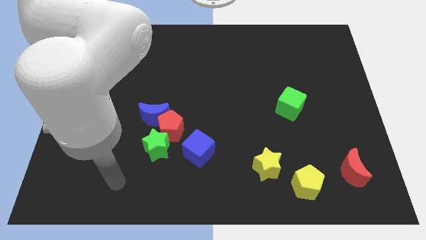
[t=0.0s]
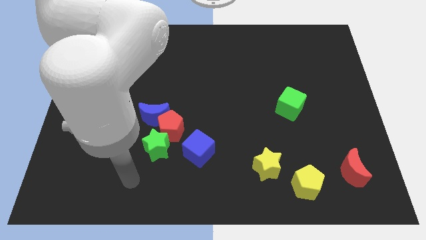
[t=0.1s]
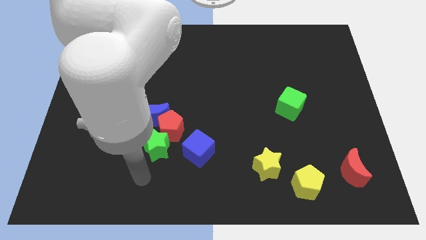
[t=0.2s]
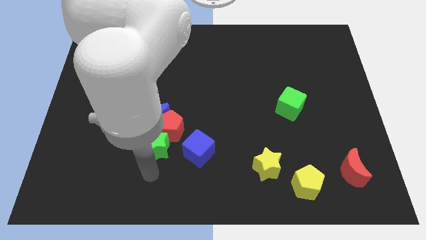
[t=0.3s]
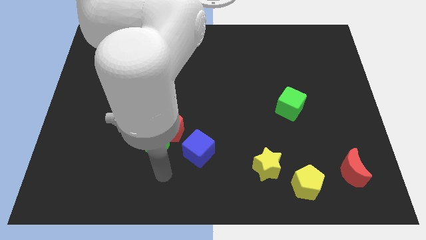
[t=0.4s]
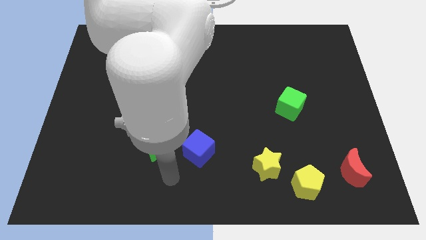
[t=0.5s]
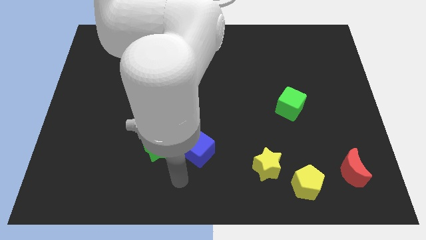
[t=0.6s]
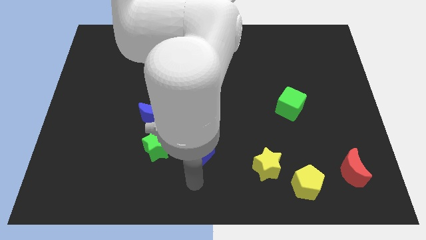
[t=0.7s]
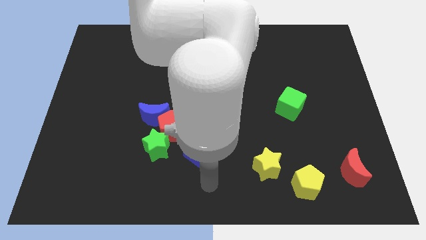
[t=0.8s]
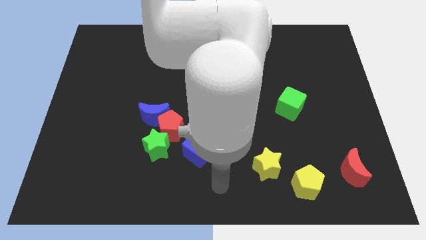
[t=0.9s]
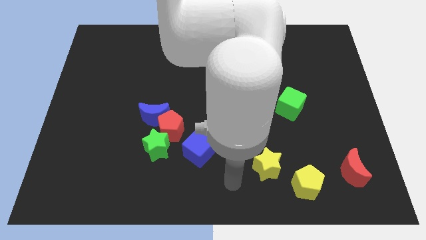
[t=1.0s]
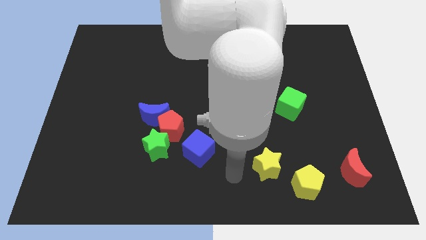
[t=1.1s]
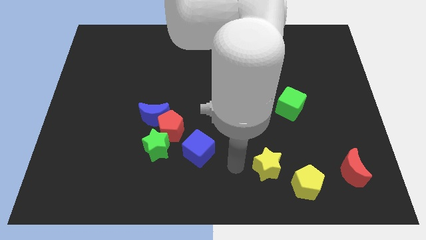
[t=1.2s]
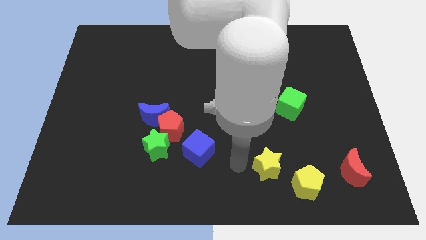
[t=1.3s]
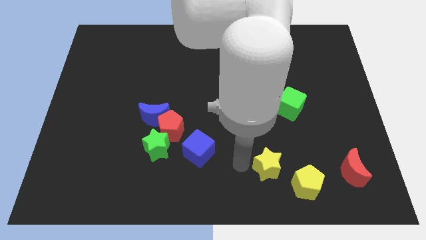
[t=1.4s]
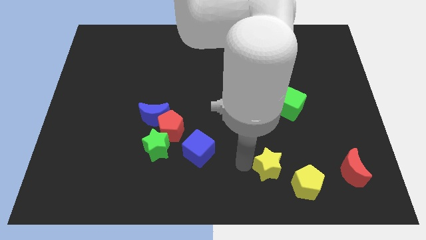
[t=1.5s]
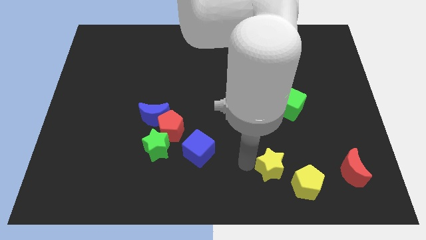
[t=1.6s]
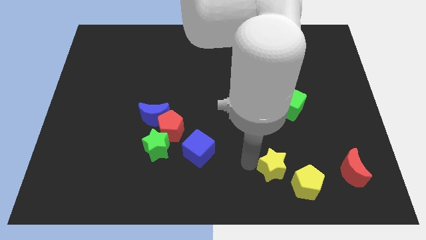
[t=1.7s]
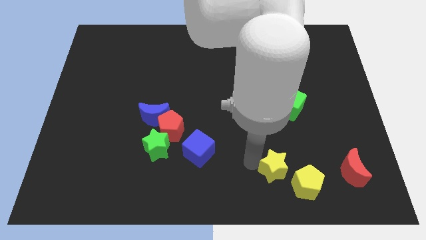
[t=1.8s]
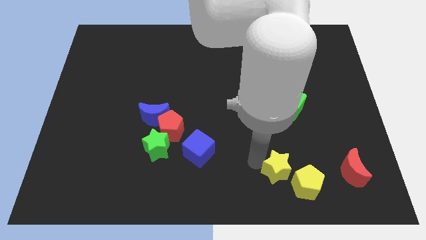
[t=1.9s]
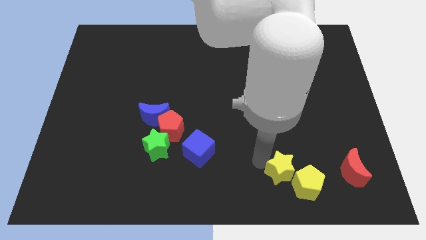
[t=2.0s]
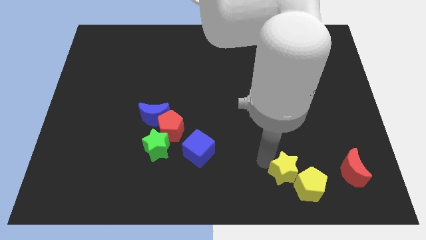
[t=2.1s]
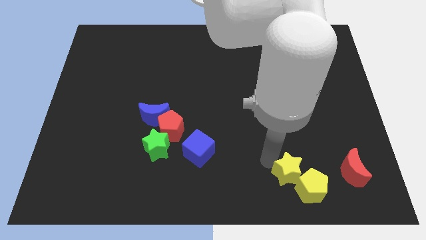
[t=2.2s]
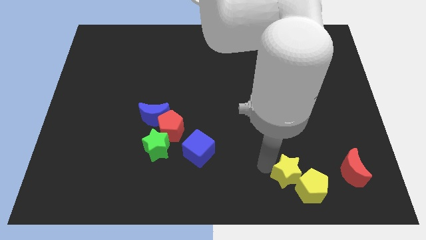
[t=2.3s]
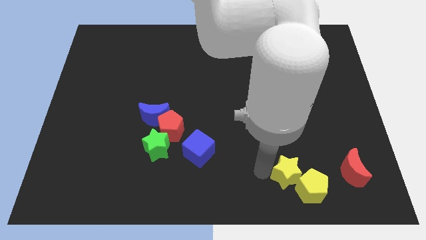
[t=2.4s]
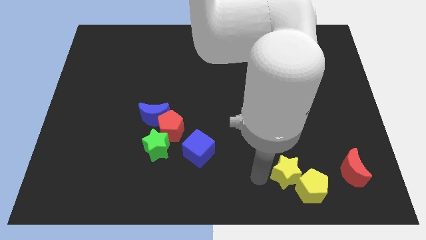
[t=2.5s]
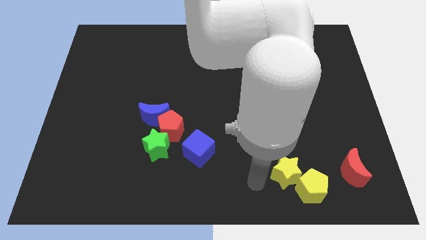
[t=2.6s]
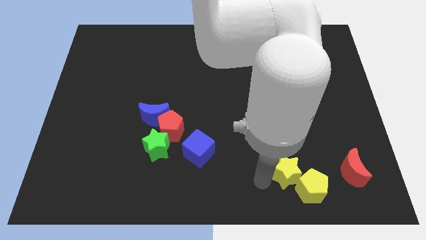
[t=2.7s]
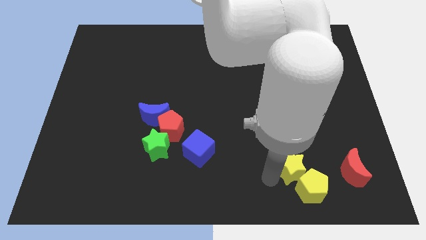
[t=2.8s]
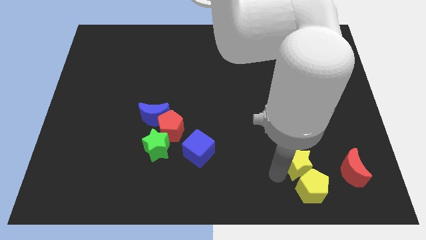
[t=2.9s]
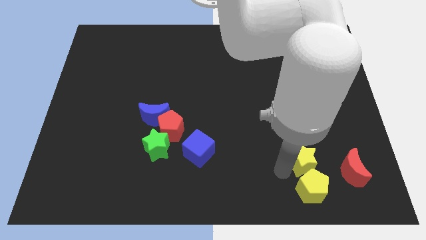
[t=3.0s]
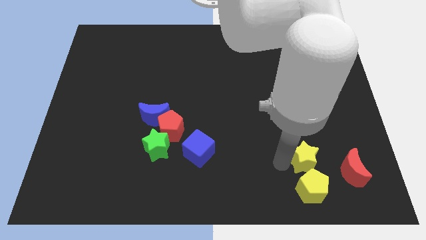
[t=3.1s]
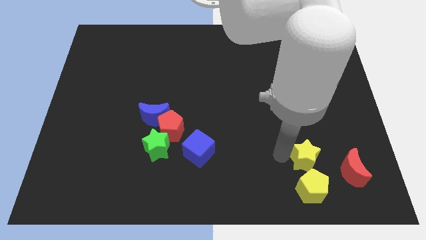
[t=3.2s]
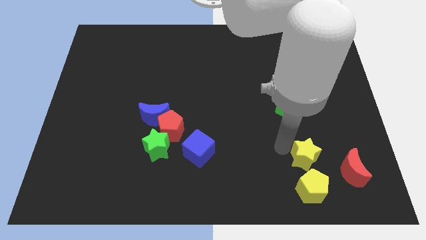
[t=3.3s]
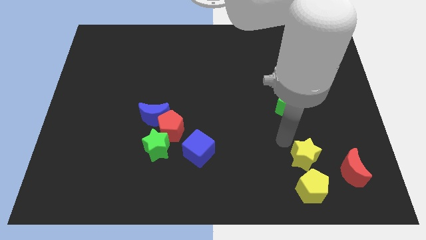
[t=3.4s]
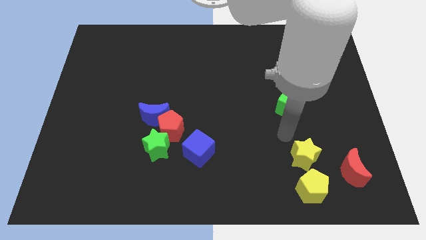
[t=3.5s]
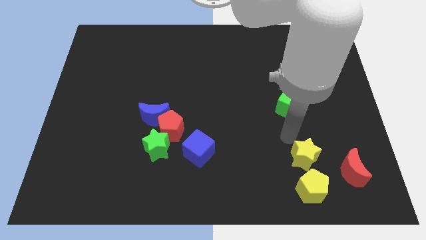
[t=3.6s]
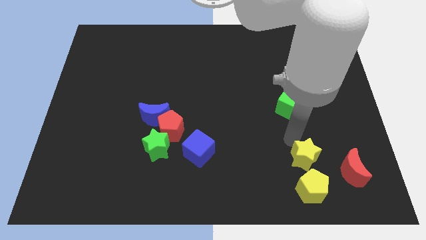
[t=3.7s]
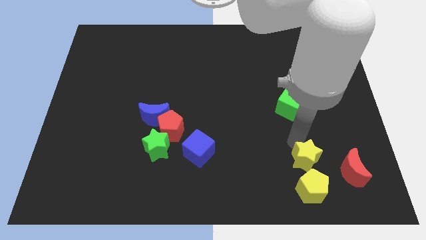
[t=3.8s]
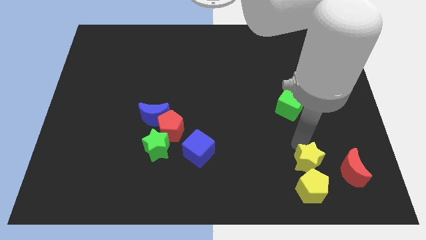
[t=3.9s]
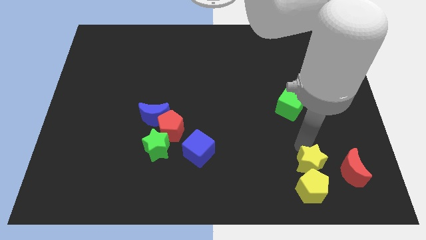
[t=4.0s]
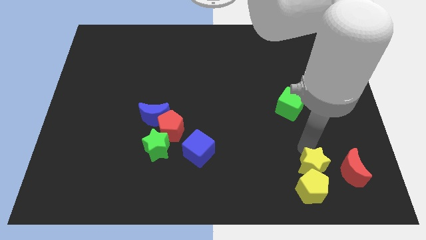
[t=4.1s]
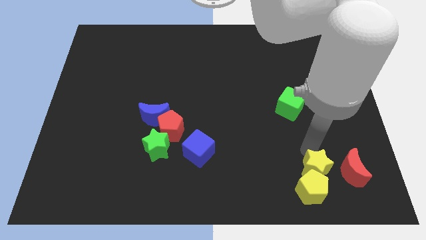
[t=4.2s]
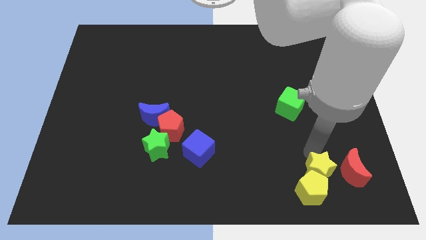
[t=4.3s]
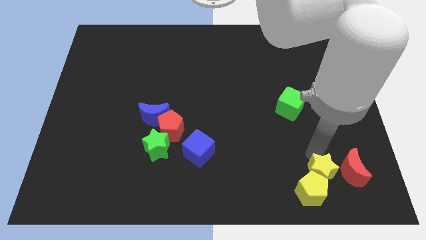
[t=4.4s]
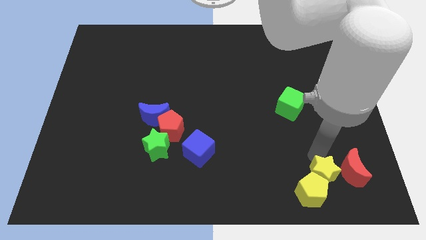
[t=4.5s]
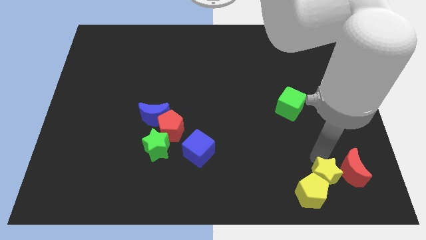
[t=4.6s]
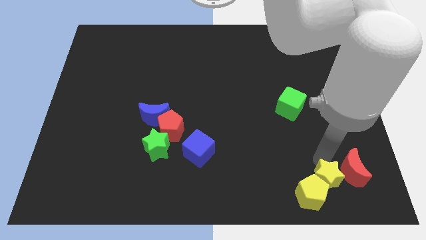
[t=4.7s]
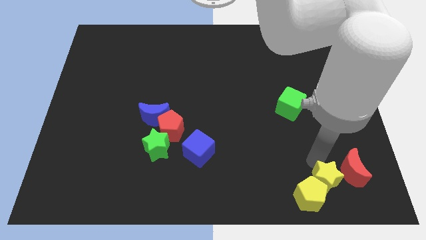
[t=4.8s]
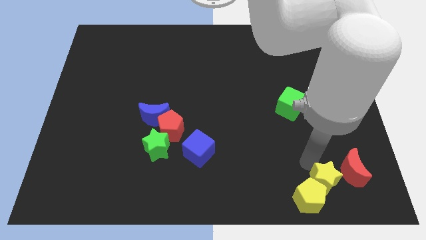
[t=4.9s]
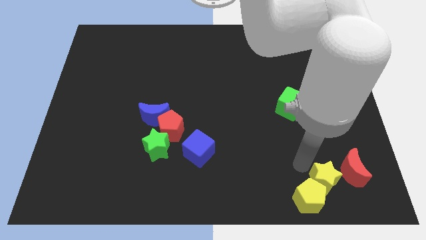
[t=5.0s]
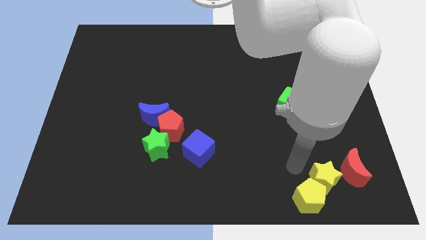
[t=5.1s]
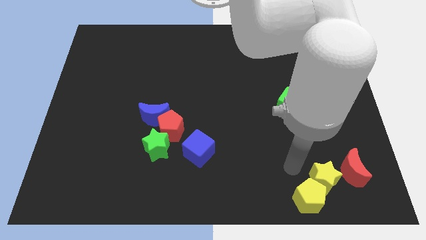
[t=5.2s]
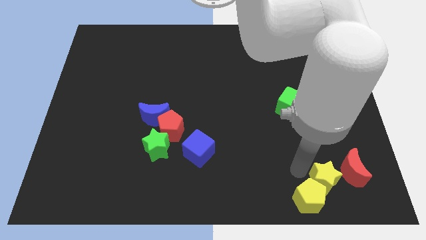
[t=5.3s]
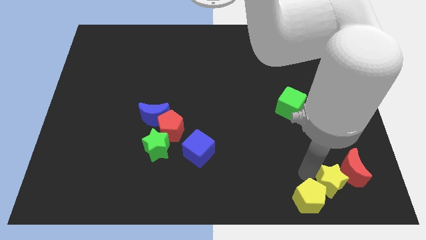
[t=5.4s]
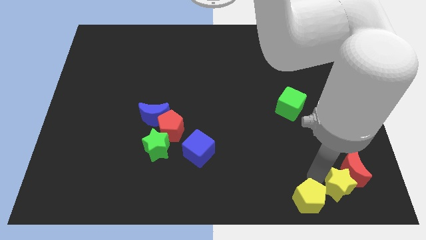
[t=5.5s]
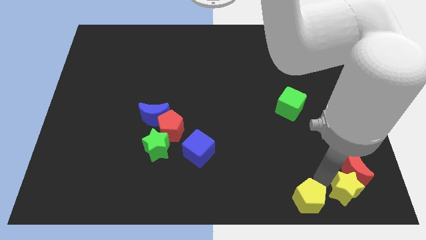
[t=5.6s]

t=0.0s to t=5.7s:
push the yellow star to the bottom right of the board

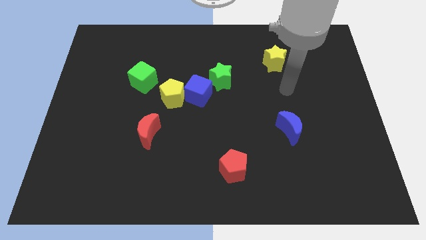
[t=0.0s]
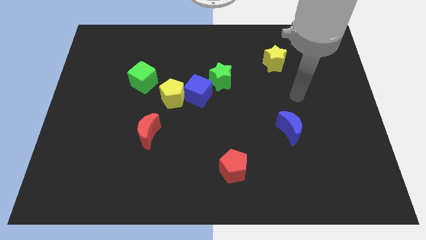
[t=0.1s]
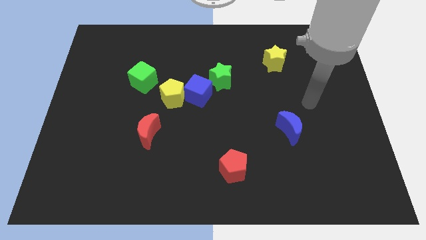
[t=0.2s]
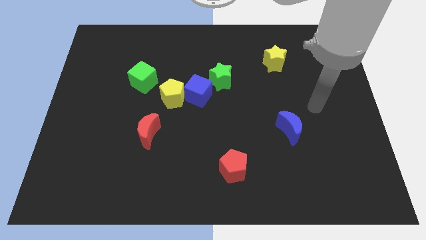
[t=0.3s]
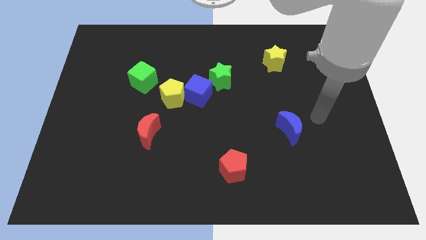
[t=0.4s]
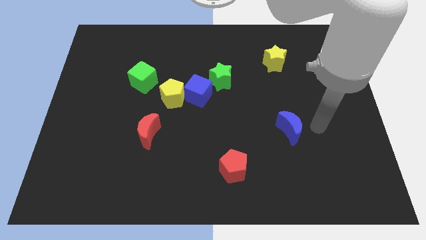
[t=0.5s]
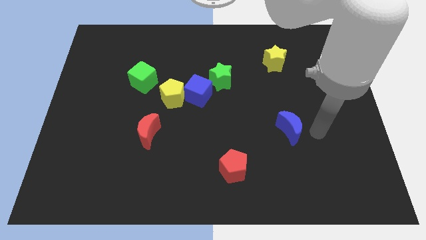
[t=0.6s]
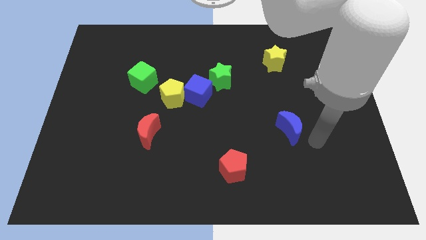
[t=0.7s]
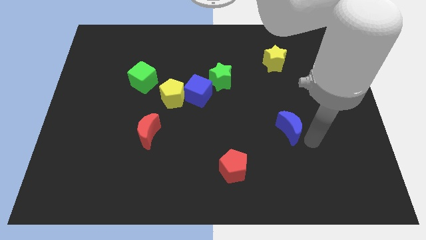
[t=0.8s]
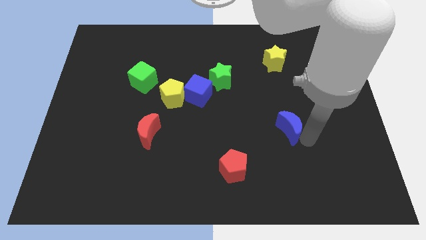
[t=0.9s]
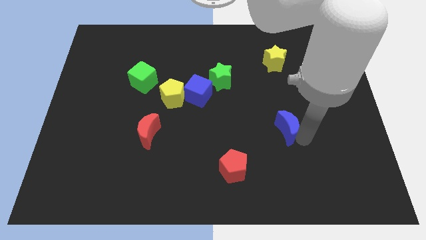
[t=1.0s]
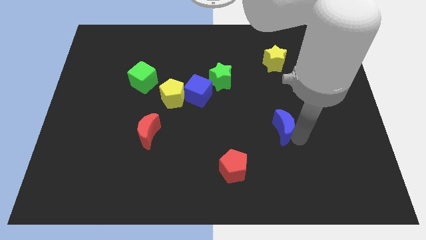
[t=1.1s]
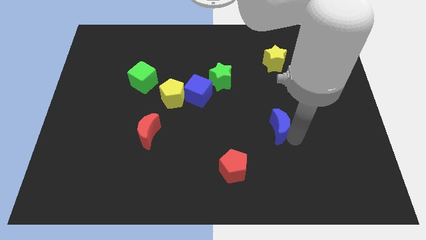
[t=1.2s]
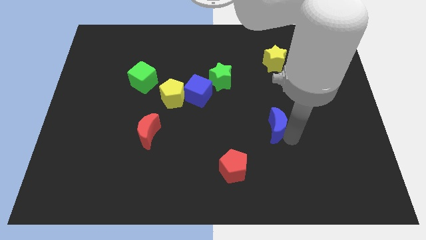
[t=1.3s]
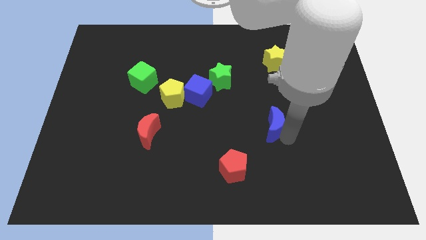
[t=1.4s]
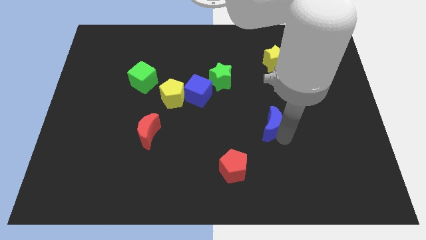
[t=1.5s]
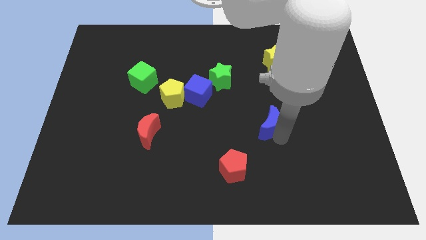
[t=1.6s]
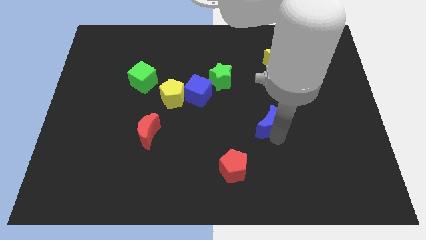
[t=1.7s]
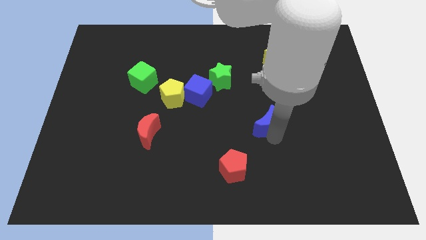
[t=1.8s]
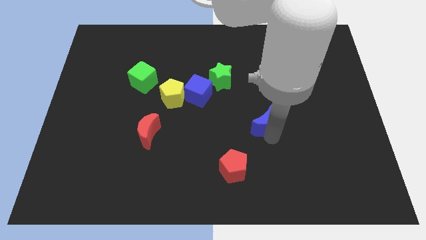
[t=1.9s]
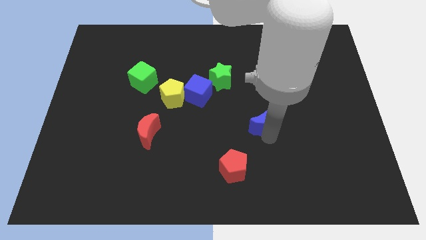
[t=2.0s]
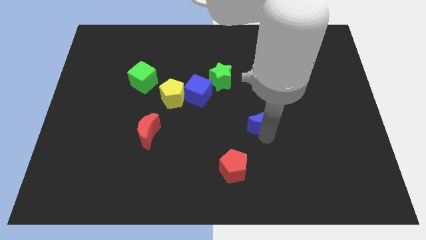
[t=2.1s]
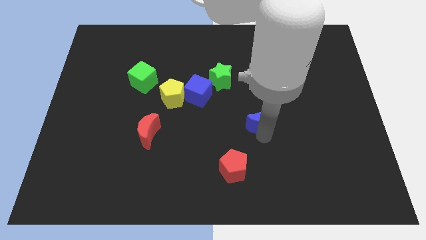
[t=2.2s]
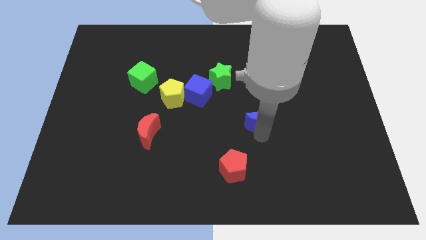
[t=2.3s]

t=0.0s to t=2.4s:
put the blue moon to the middle
